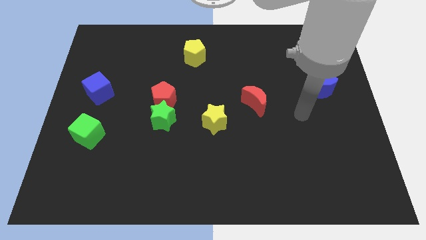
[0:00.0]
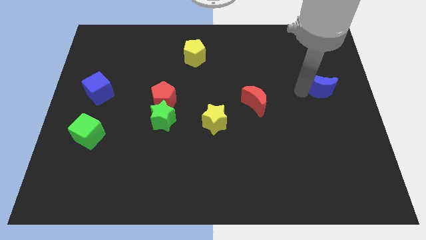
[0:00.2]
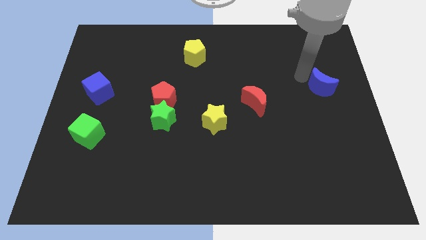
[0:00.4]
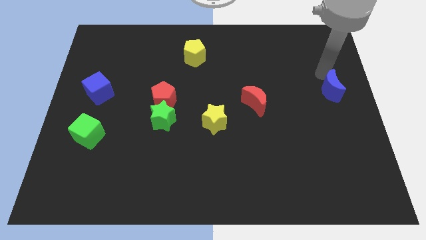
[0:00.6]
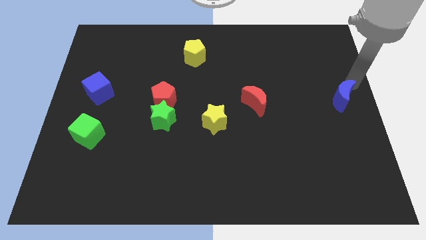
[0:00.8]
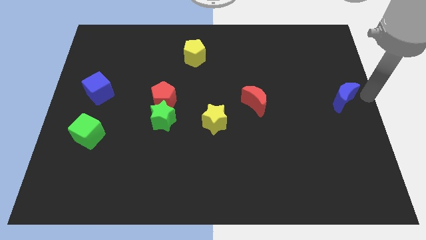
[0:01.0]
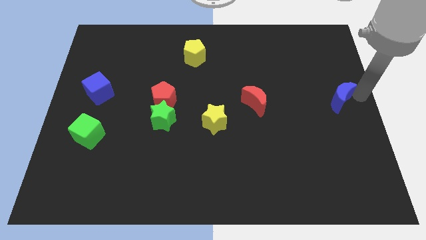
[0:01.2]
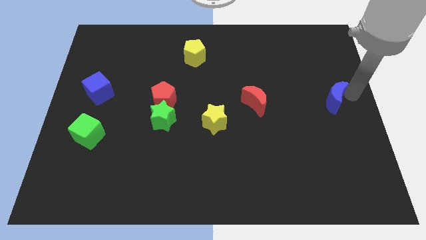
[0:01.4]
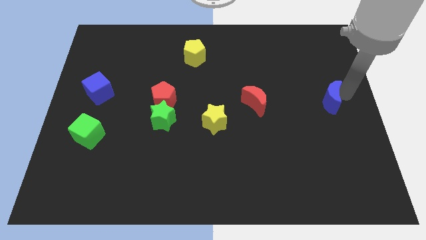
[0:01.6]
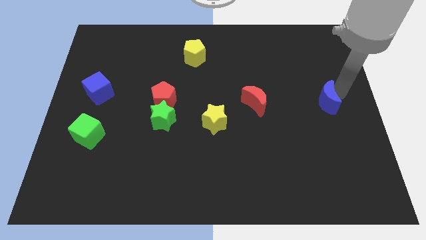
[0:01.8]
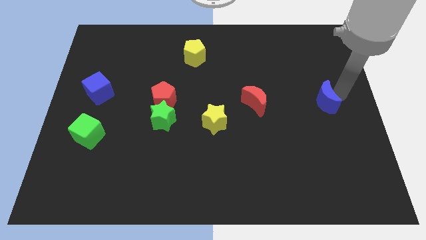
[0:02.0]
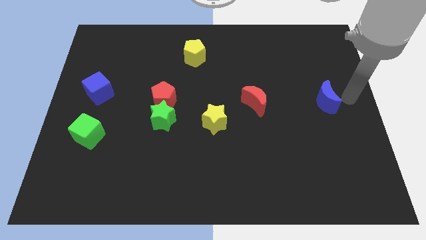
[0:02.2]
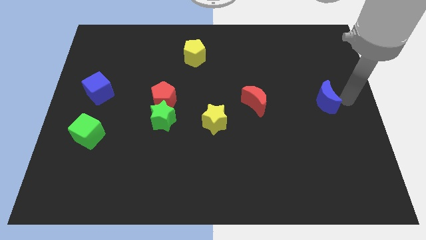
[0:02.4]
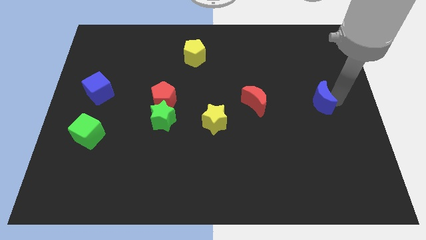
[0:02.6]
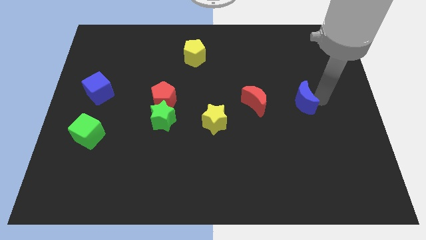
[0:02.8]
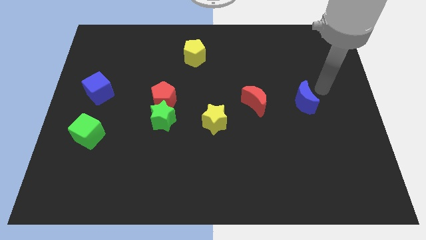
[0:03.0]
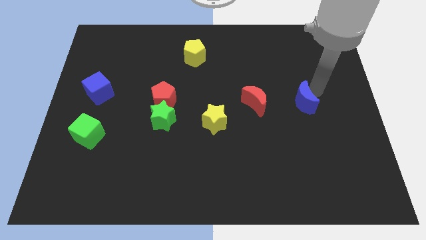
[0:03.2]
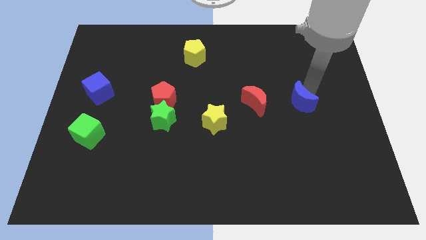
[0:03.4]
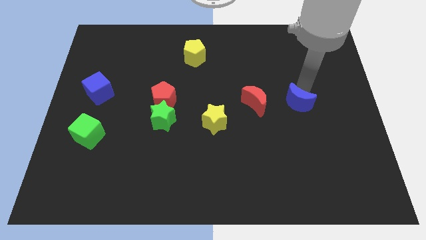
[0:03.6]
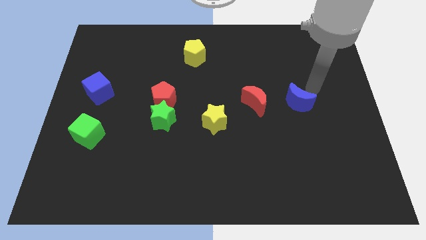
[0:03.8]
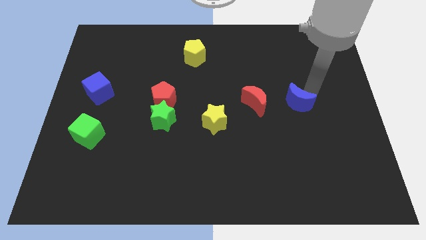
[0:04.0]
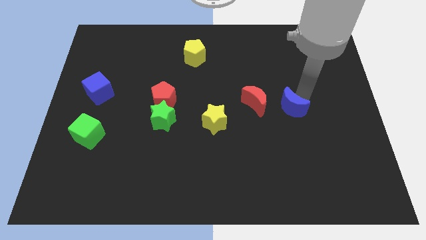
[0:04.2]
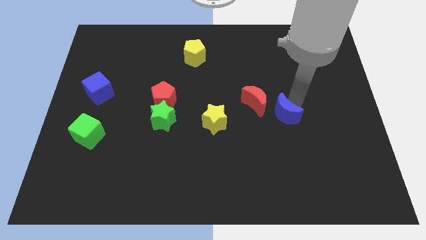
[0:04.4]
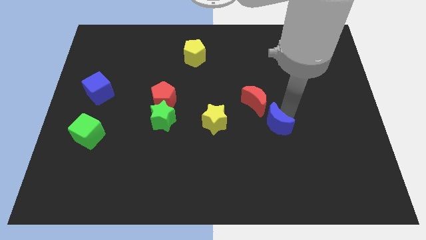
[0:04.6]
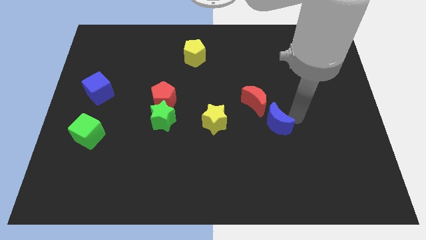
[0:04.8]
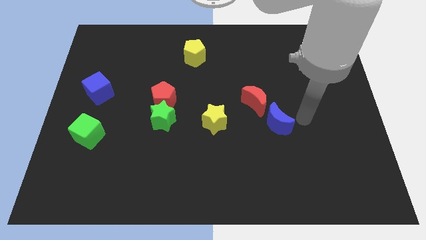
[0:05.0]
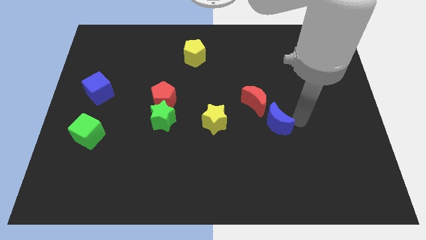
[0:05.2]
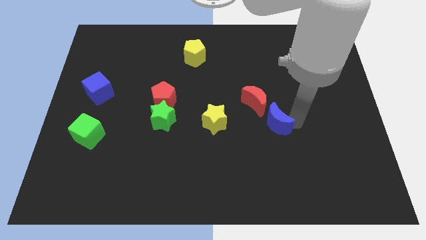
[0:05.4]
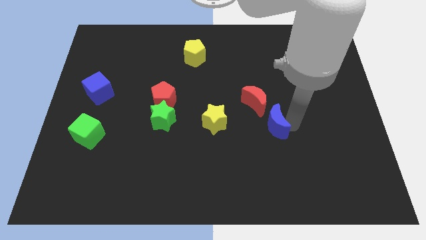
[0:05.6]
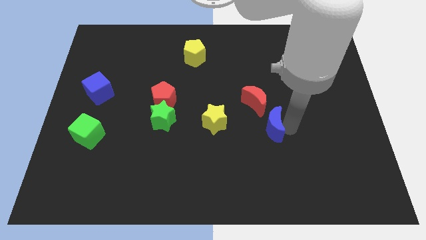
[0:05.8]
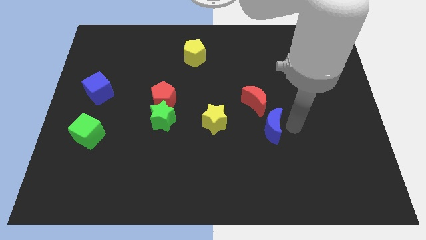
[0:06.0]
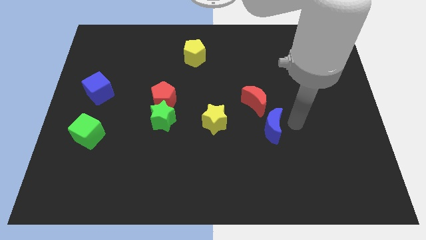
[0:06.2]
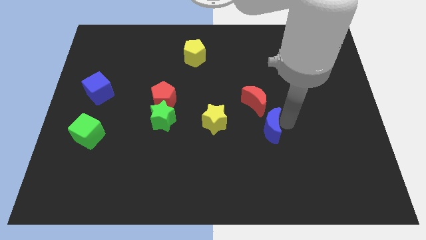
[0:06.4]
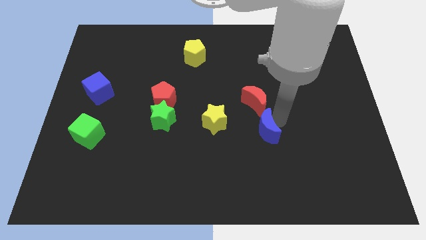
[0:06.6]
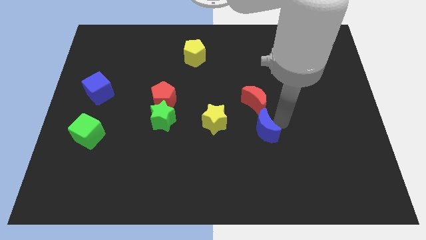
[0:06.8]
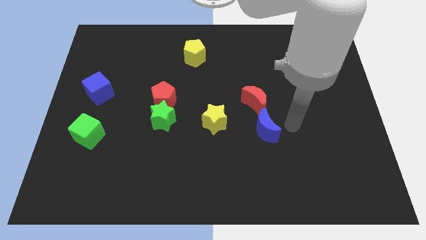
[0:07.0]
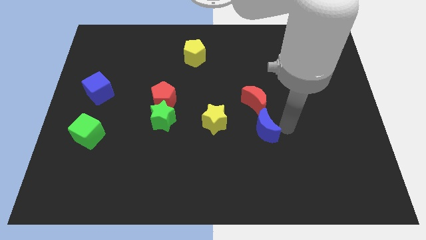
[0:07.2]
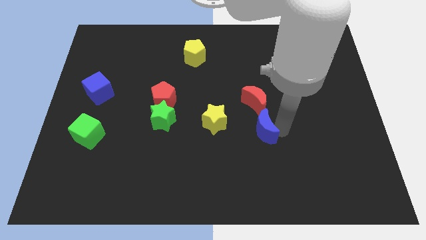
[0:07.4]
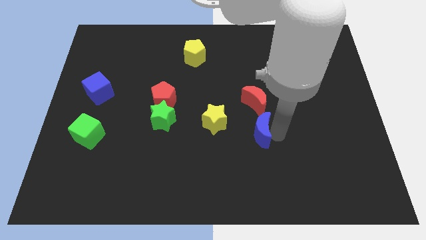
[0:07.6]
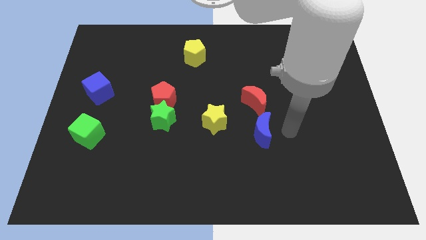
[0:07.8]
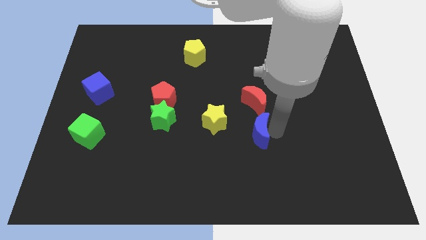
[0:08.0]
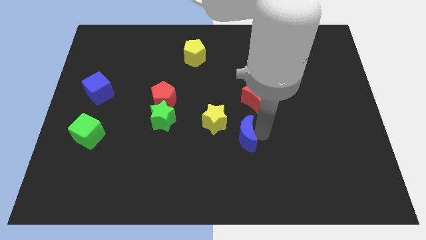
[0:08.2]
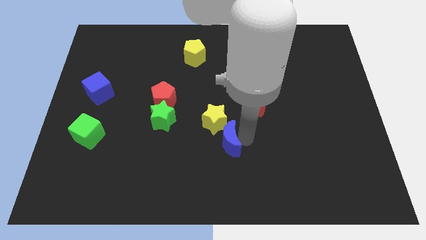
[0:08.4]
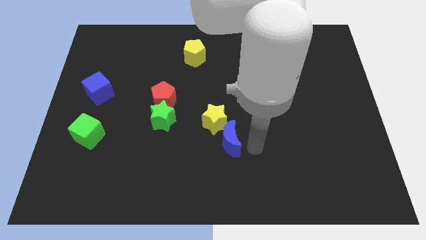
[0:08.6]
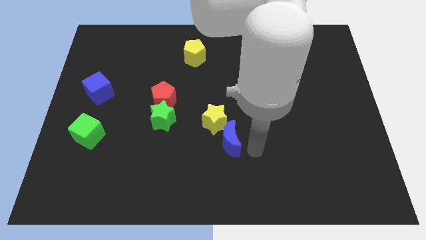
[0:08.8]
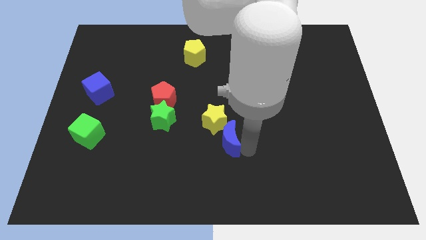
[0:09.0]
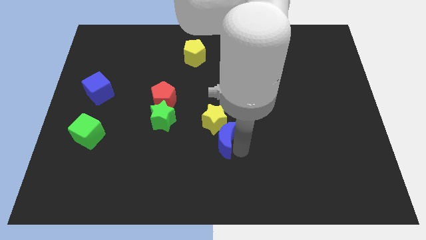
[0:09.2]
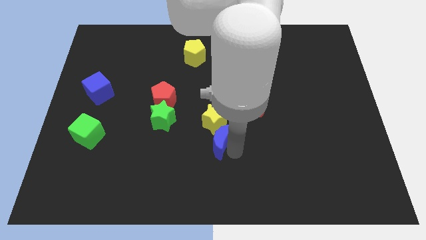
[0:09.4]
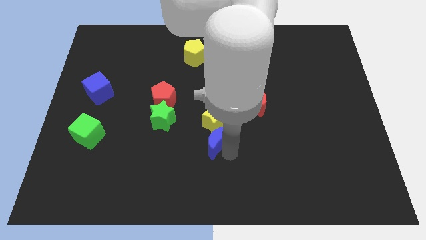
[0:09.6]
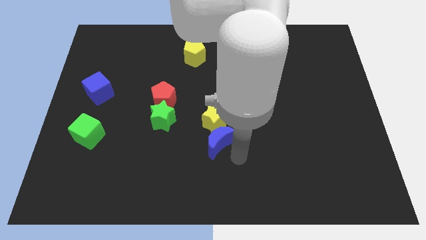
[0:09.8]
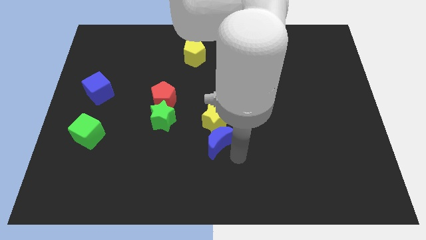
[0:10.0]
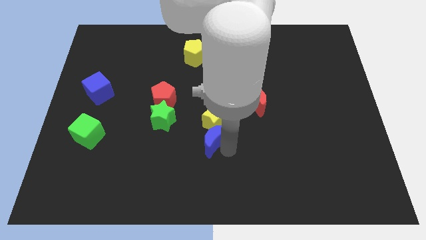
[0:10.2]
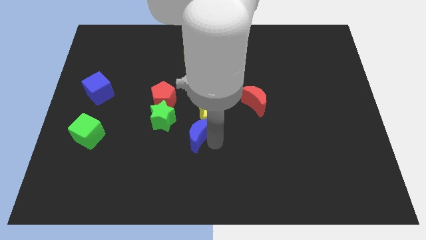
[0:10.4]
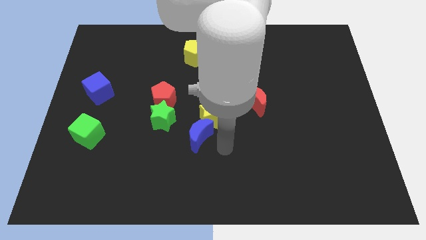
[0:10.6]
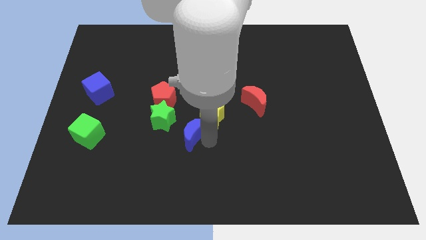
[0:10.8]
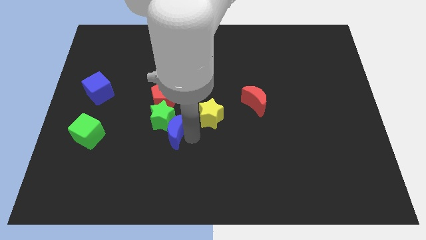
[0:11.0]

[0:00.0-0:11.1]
slide the blue moon next to the green star

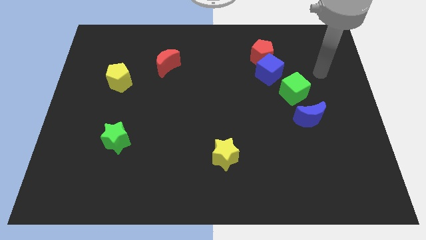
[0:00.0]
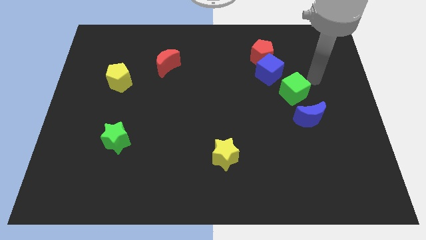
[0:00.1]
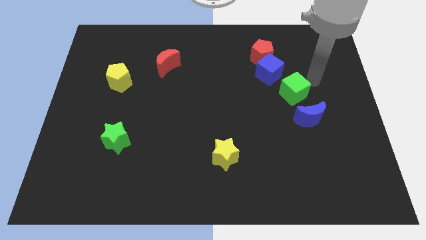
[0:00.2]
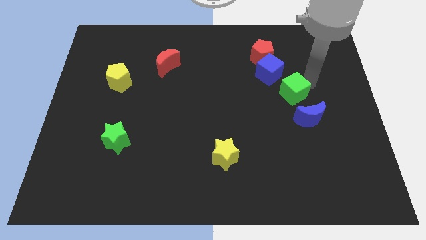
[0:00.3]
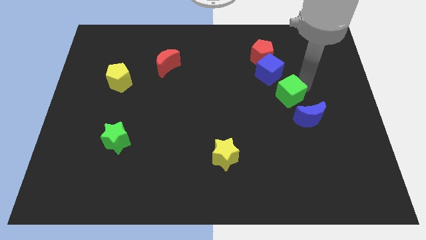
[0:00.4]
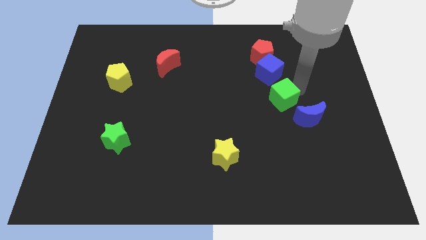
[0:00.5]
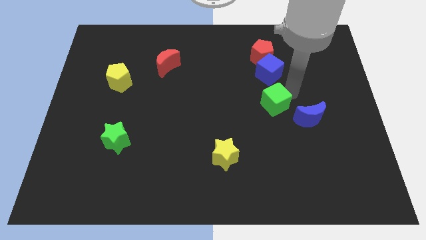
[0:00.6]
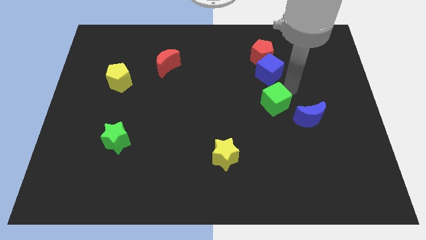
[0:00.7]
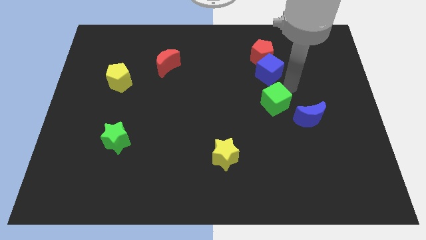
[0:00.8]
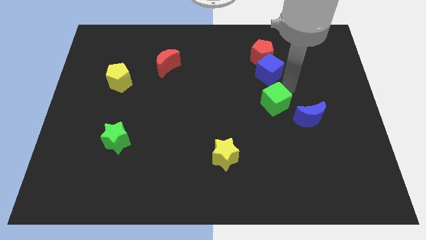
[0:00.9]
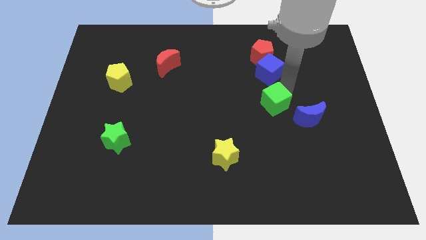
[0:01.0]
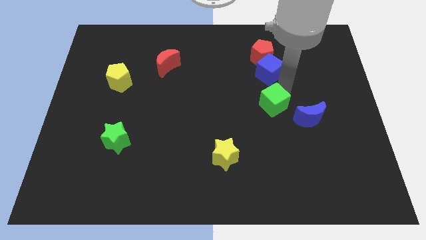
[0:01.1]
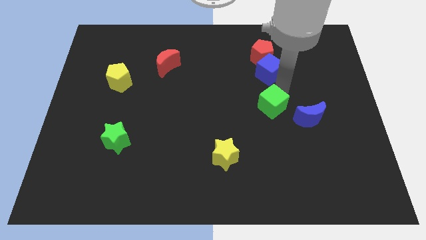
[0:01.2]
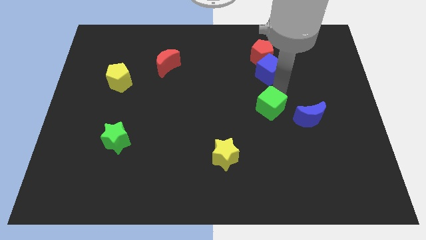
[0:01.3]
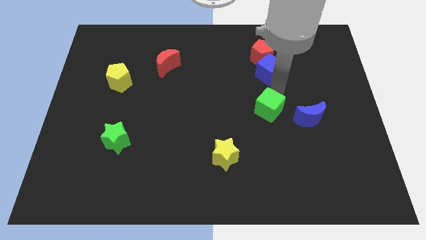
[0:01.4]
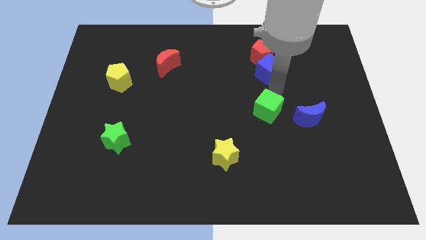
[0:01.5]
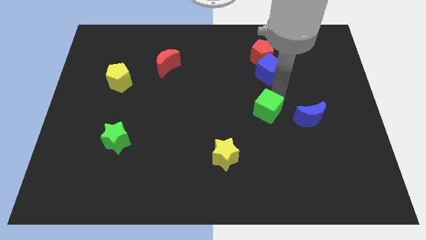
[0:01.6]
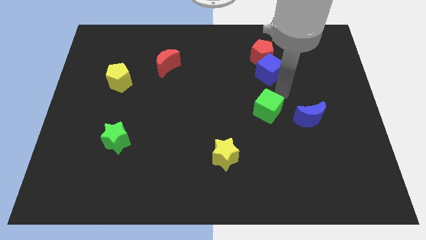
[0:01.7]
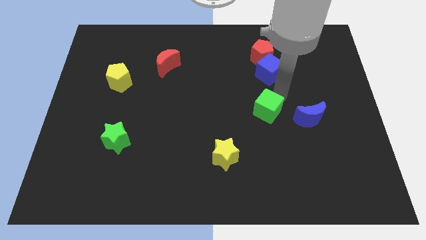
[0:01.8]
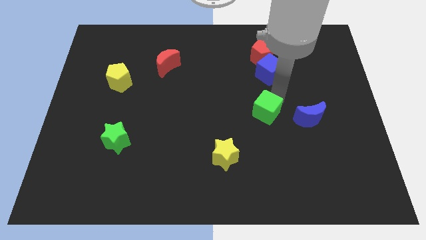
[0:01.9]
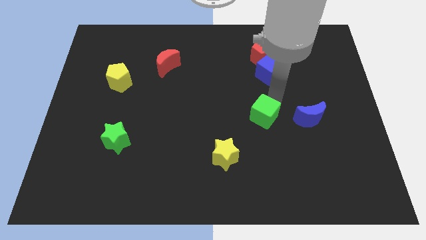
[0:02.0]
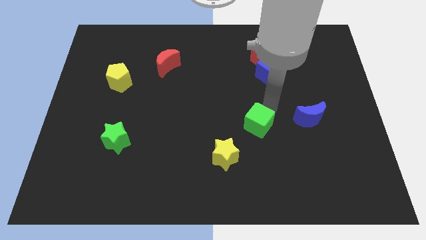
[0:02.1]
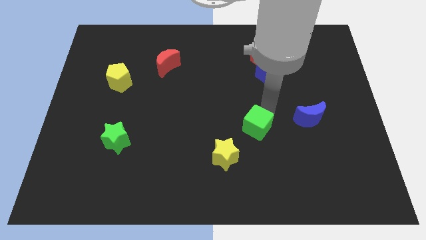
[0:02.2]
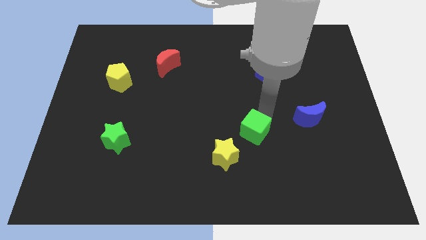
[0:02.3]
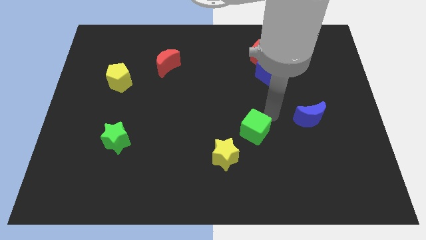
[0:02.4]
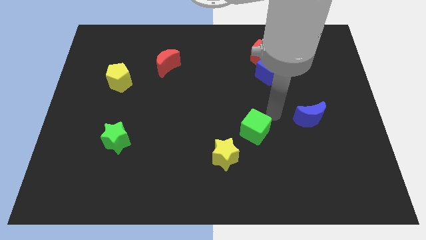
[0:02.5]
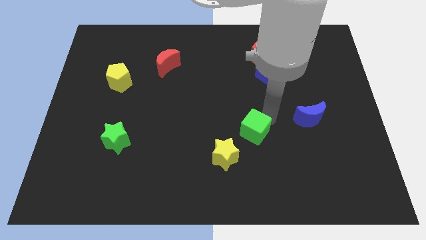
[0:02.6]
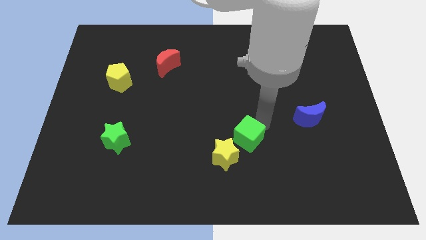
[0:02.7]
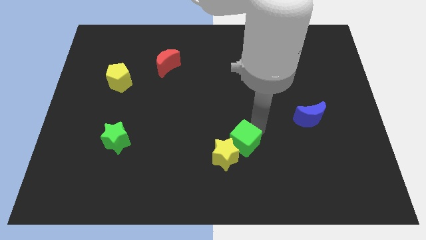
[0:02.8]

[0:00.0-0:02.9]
push the green cube to the yellow star
